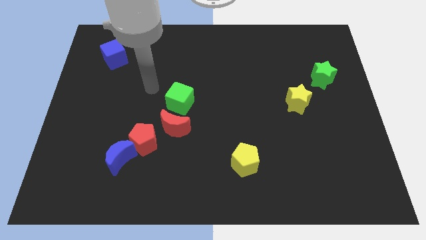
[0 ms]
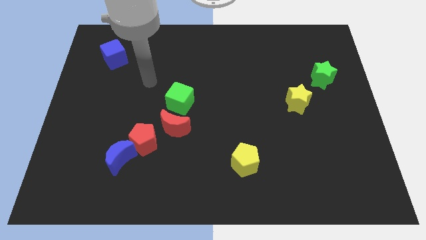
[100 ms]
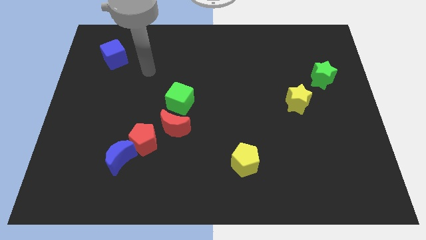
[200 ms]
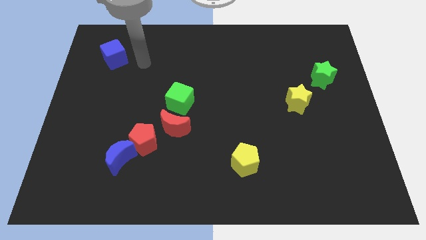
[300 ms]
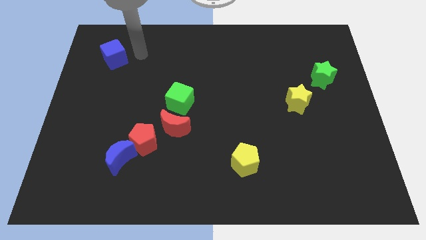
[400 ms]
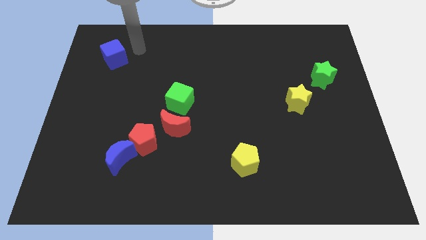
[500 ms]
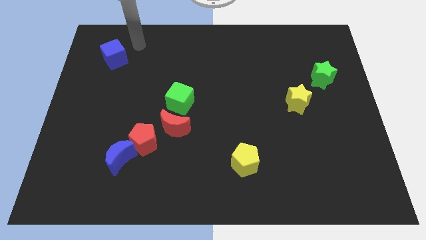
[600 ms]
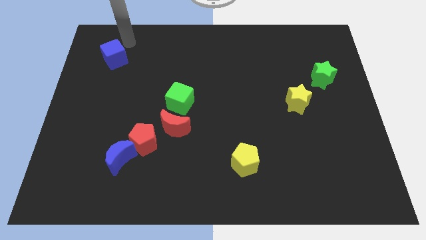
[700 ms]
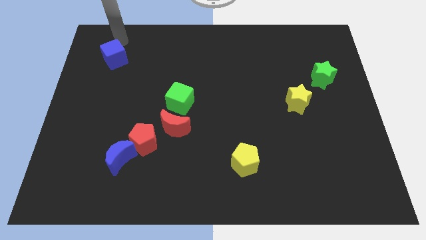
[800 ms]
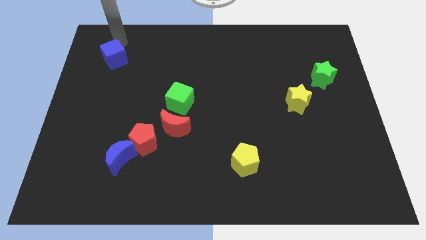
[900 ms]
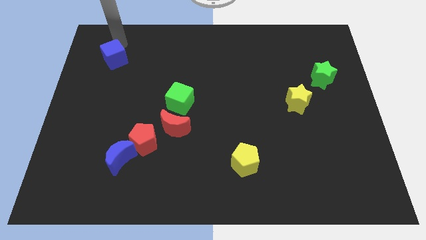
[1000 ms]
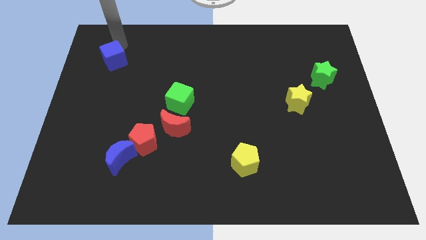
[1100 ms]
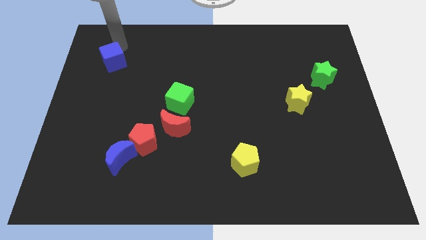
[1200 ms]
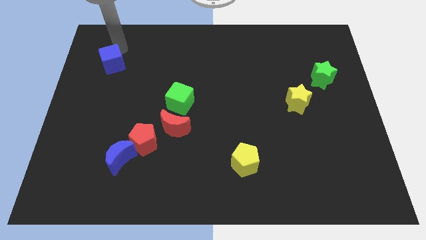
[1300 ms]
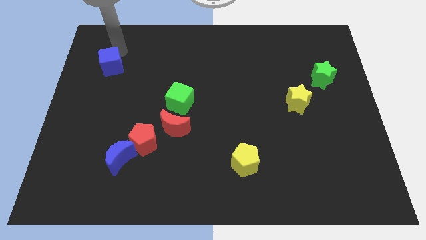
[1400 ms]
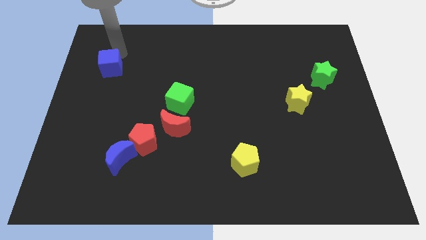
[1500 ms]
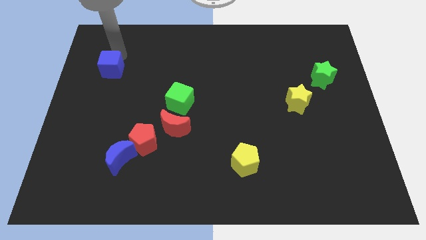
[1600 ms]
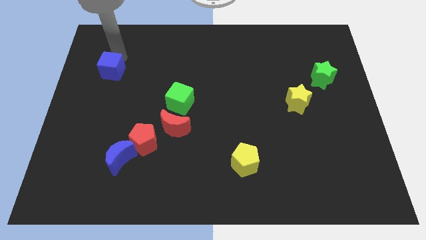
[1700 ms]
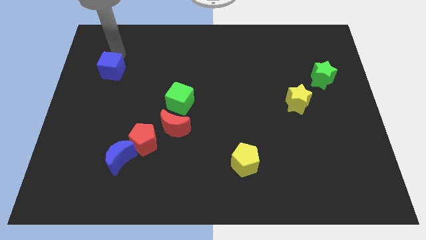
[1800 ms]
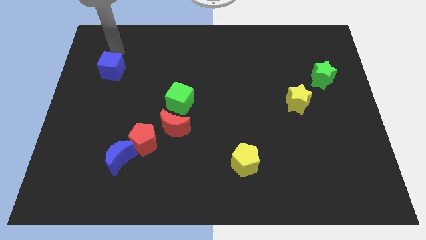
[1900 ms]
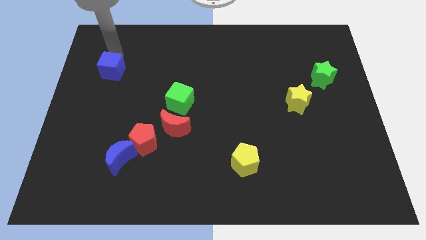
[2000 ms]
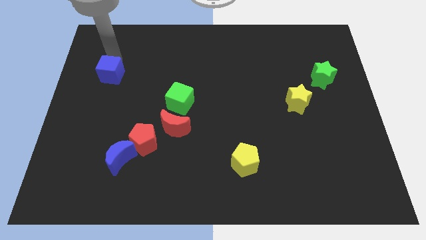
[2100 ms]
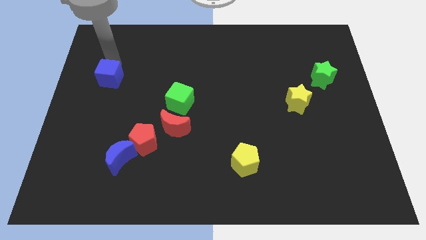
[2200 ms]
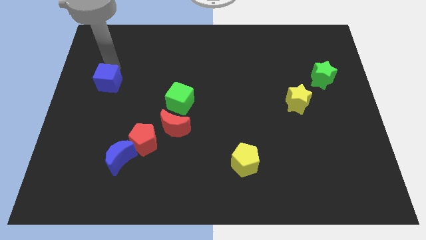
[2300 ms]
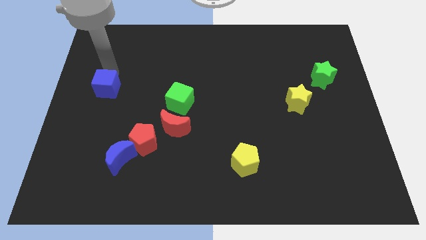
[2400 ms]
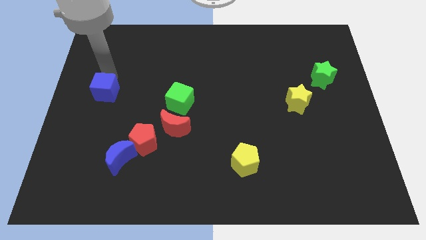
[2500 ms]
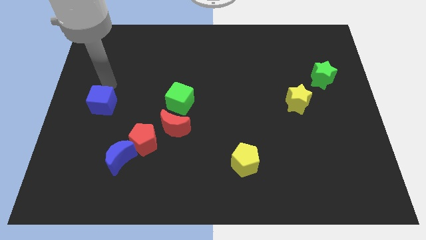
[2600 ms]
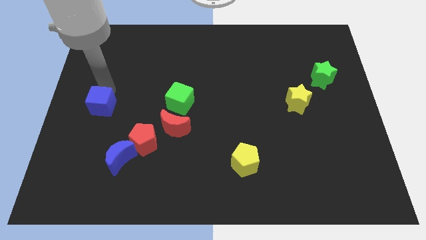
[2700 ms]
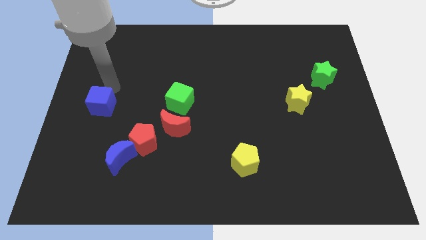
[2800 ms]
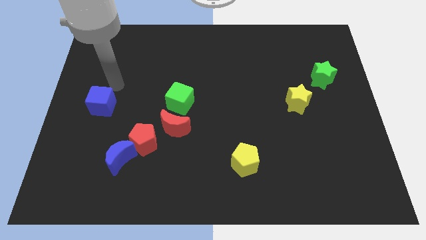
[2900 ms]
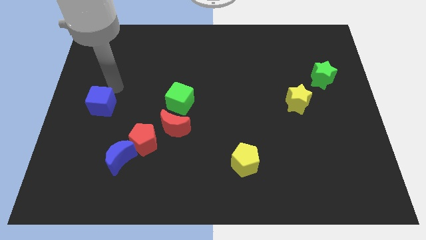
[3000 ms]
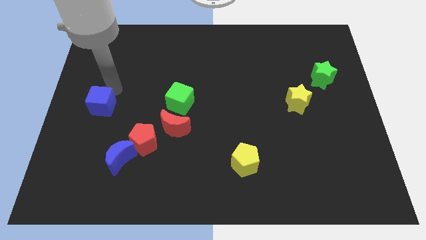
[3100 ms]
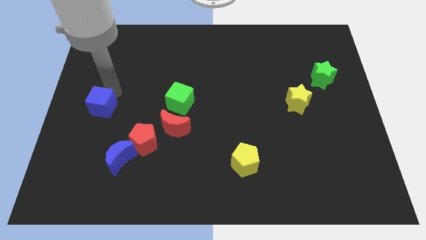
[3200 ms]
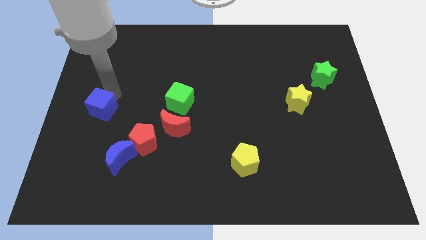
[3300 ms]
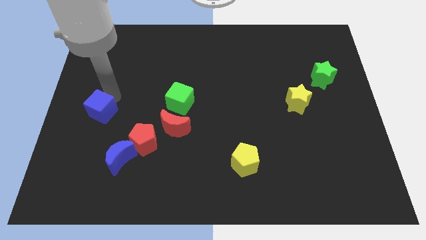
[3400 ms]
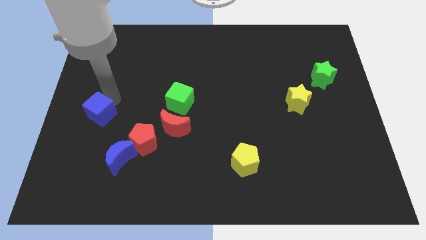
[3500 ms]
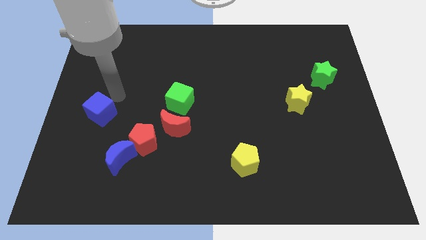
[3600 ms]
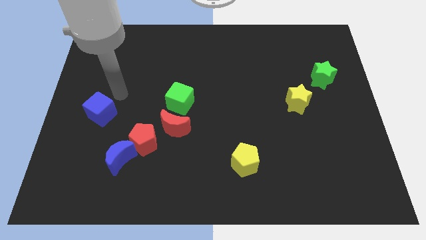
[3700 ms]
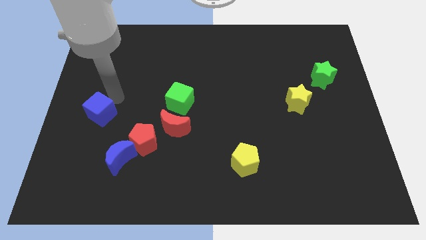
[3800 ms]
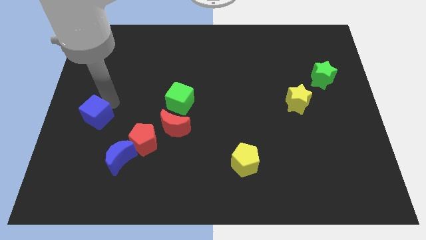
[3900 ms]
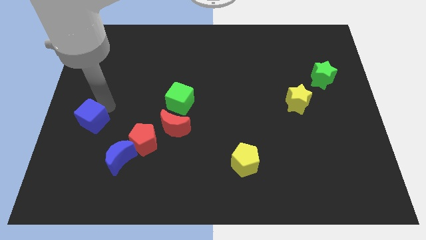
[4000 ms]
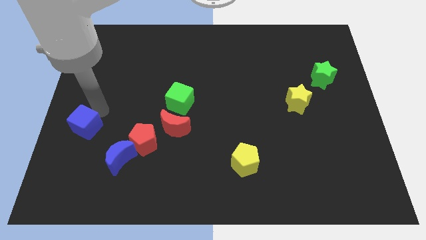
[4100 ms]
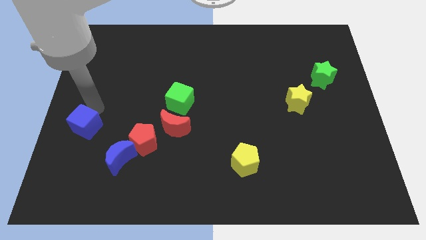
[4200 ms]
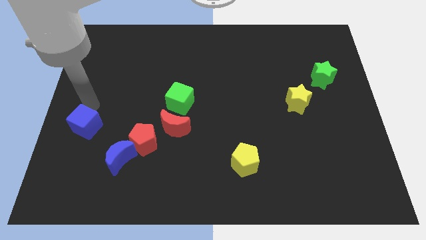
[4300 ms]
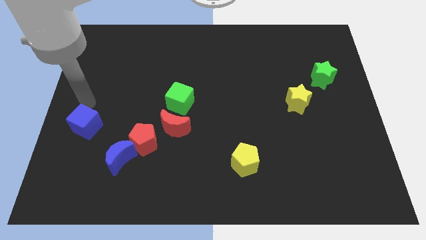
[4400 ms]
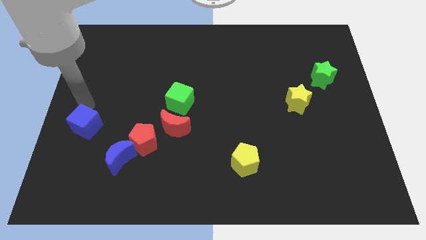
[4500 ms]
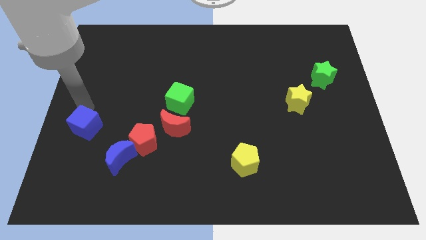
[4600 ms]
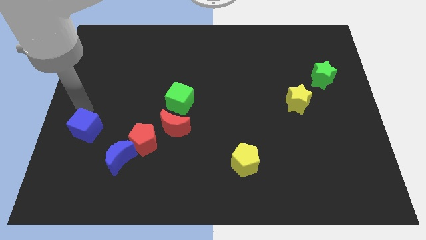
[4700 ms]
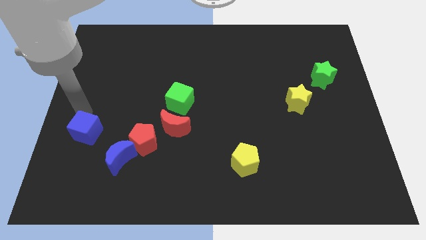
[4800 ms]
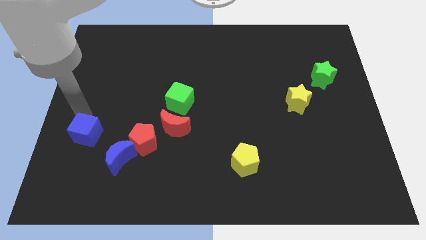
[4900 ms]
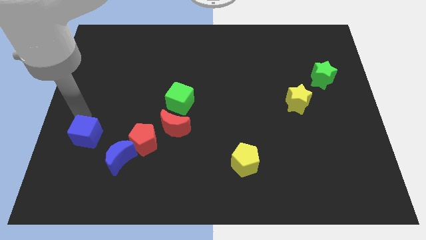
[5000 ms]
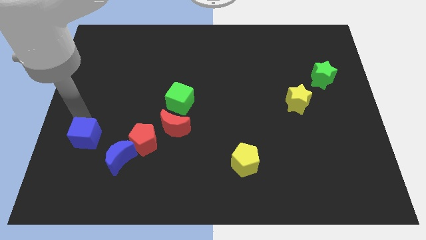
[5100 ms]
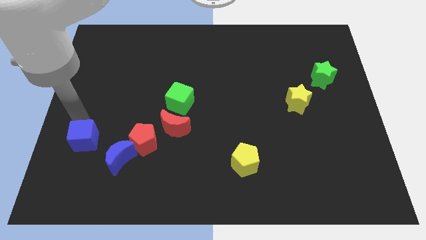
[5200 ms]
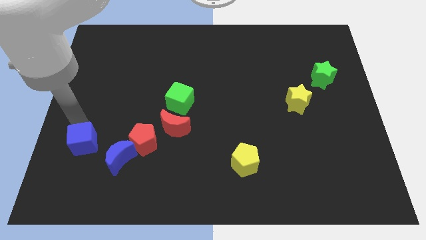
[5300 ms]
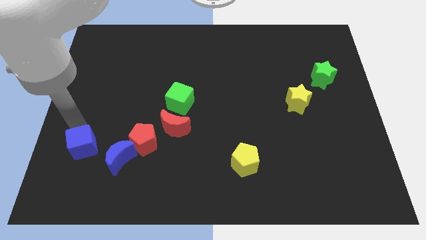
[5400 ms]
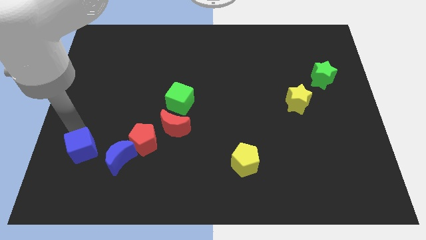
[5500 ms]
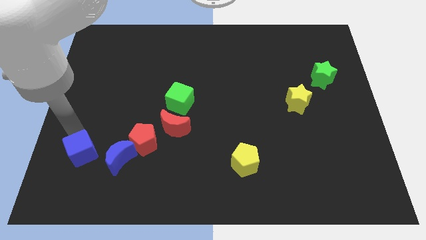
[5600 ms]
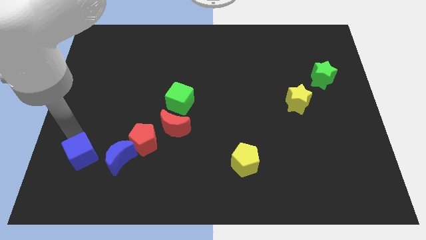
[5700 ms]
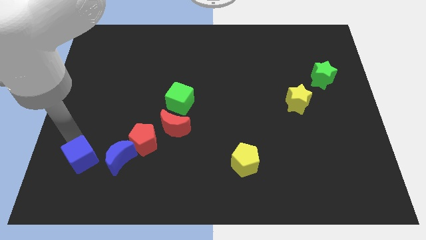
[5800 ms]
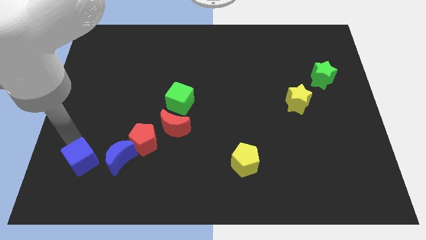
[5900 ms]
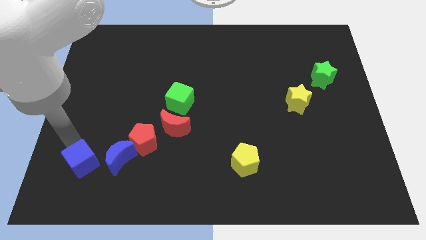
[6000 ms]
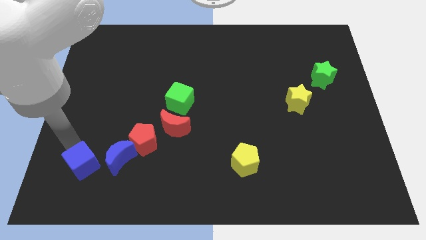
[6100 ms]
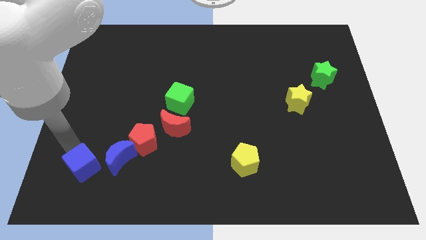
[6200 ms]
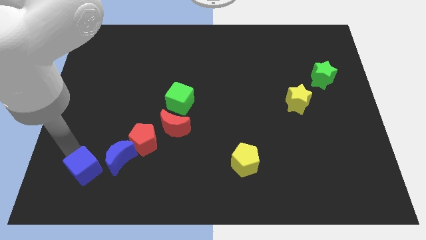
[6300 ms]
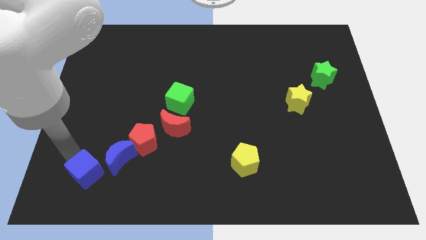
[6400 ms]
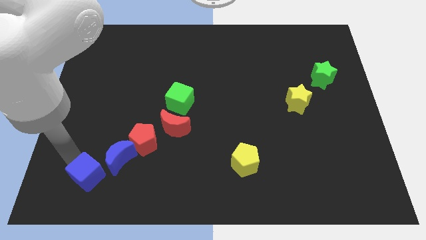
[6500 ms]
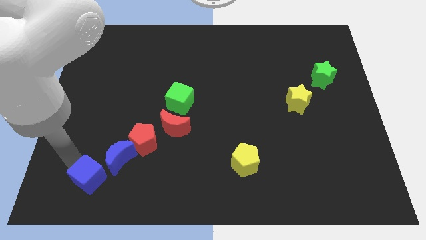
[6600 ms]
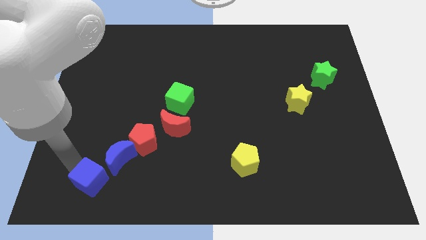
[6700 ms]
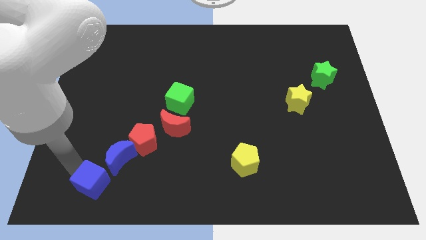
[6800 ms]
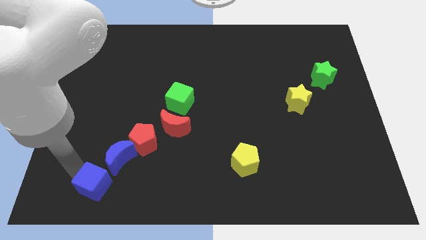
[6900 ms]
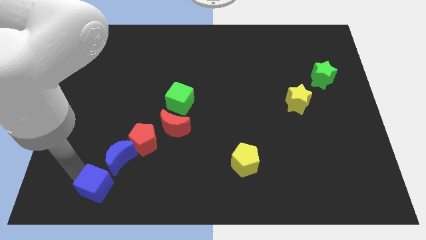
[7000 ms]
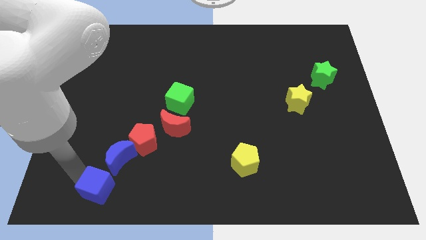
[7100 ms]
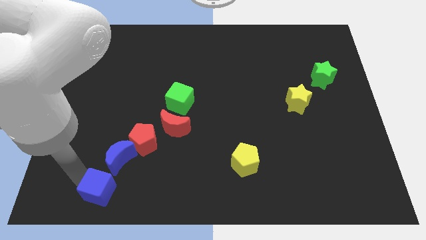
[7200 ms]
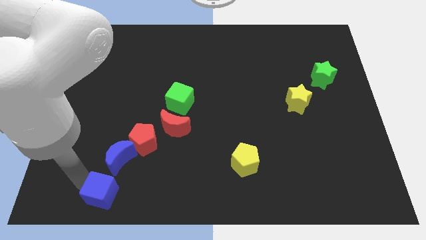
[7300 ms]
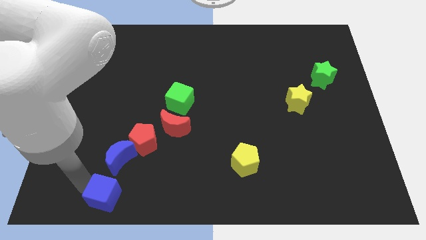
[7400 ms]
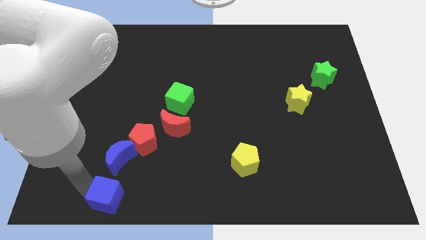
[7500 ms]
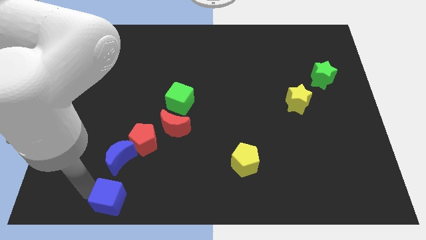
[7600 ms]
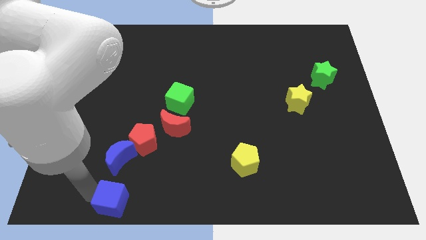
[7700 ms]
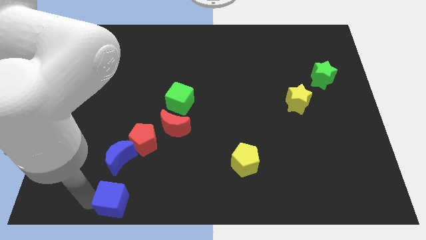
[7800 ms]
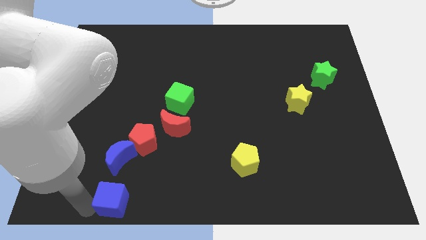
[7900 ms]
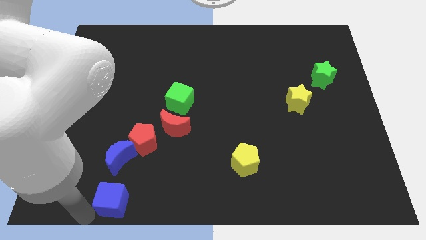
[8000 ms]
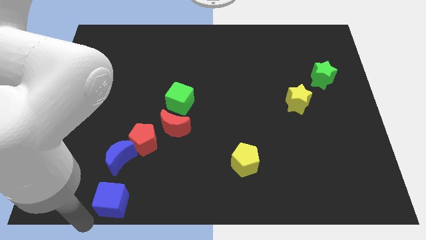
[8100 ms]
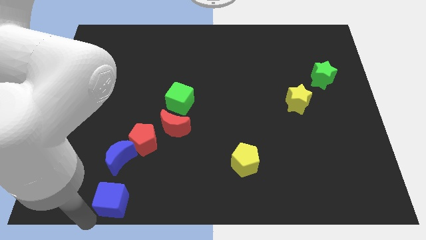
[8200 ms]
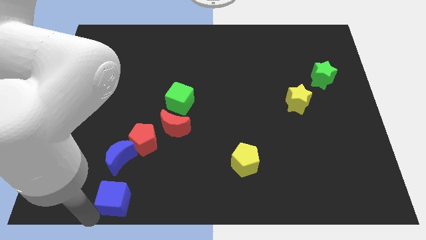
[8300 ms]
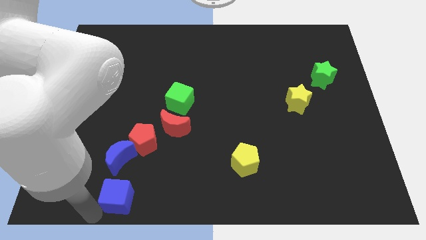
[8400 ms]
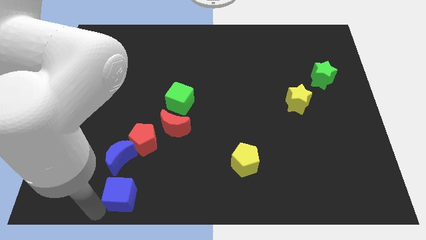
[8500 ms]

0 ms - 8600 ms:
slide the blue cube to the bottom right of the blue moon
